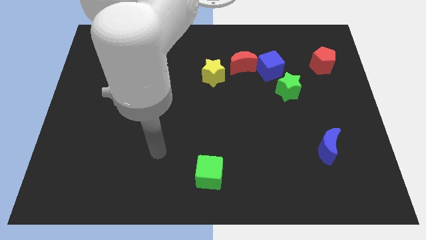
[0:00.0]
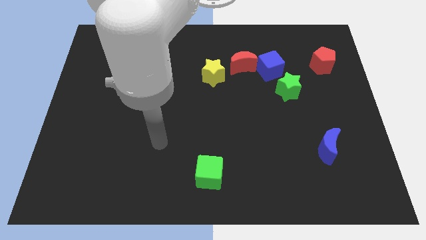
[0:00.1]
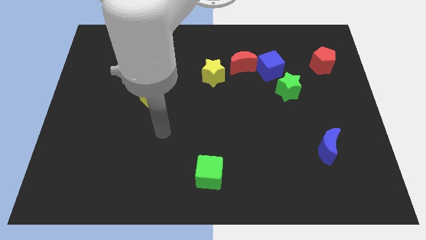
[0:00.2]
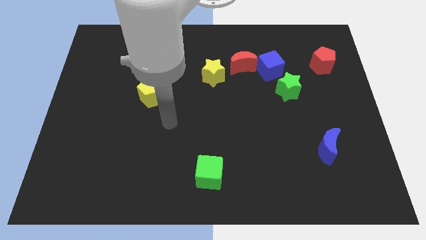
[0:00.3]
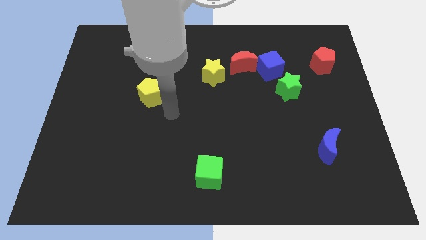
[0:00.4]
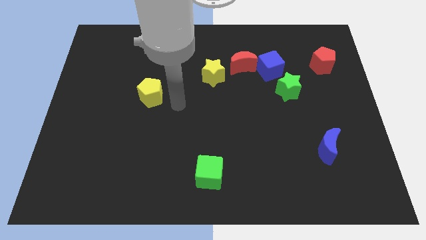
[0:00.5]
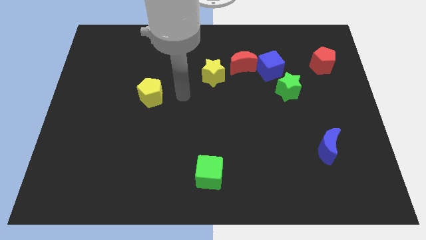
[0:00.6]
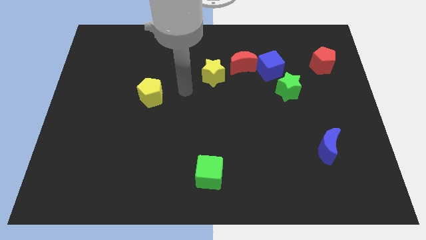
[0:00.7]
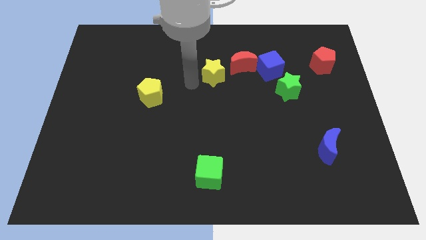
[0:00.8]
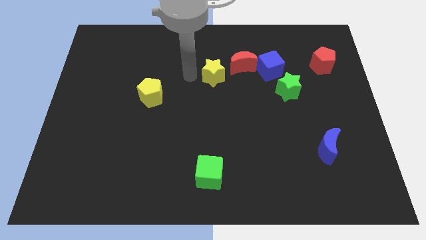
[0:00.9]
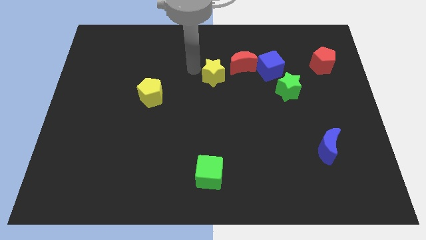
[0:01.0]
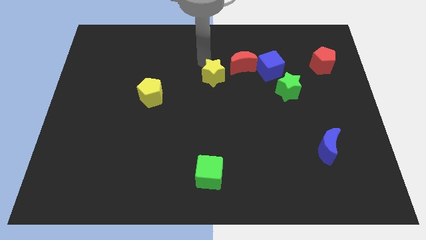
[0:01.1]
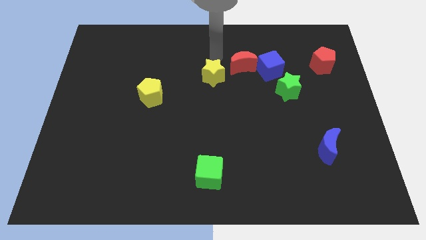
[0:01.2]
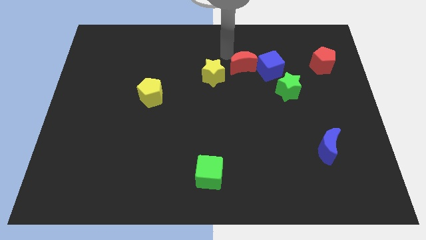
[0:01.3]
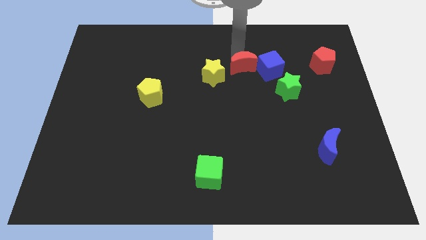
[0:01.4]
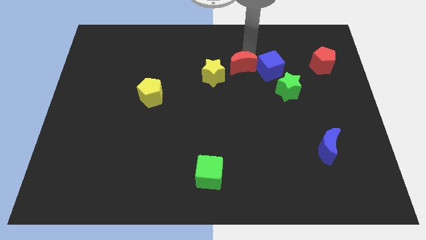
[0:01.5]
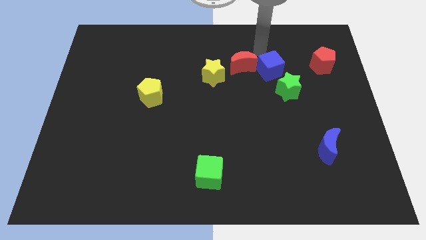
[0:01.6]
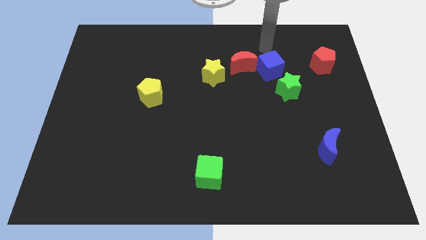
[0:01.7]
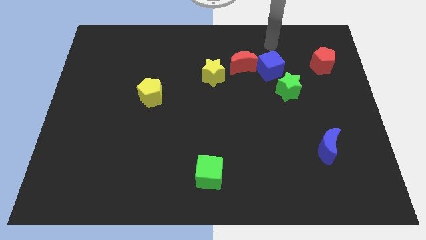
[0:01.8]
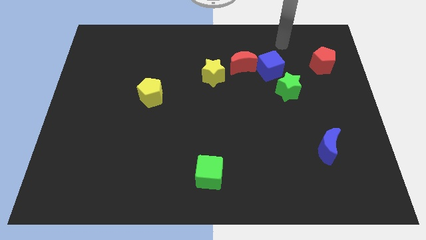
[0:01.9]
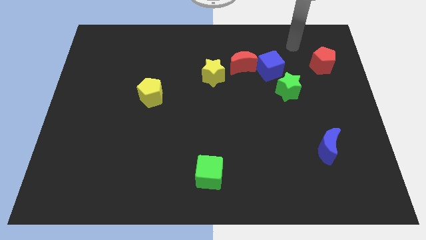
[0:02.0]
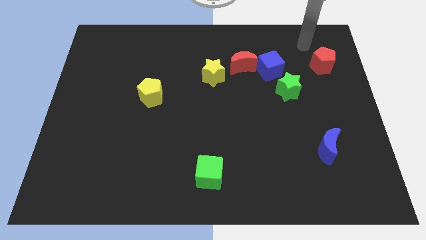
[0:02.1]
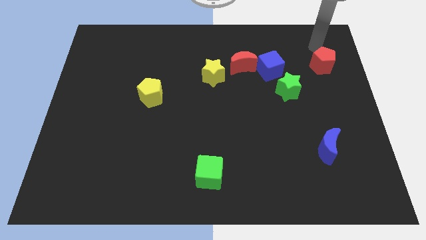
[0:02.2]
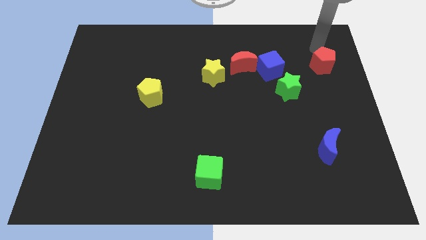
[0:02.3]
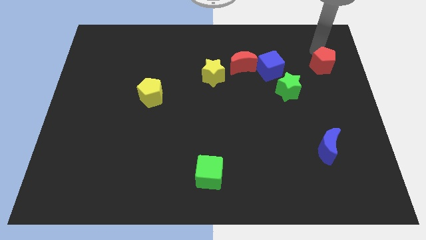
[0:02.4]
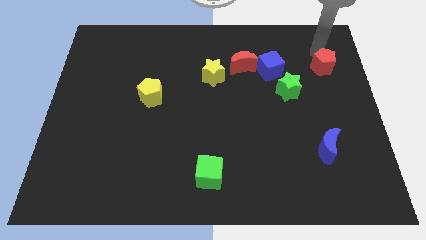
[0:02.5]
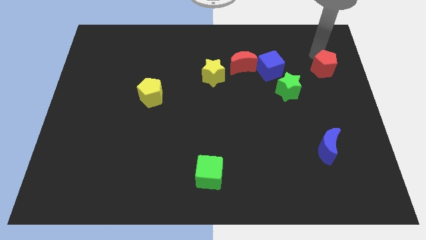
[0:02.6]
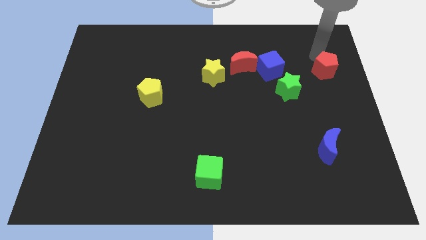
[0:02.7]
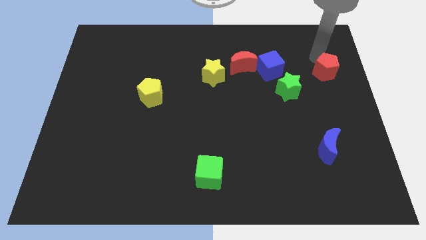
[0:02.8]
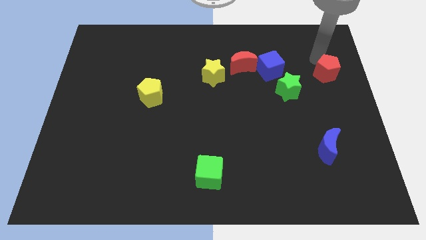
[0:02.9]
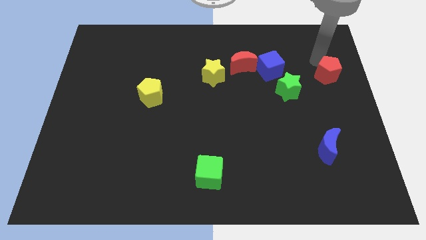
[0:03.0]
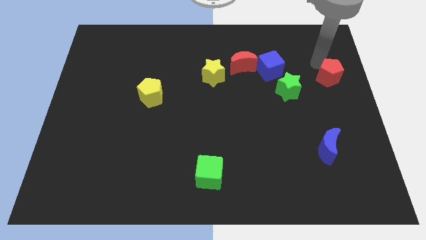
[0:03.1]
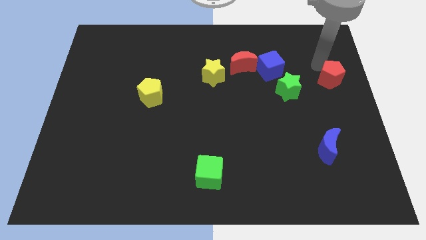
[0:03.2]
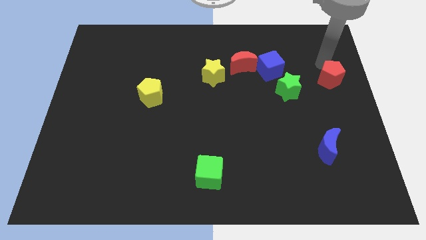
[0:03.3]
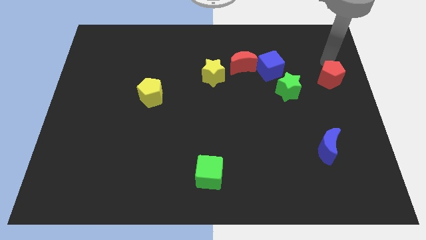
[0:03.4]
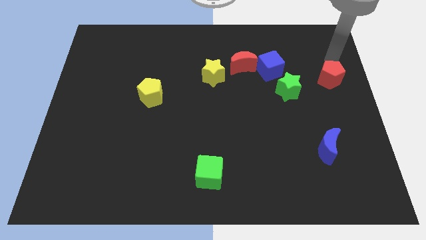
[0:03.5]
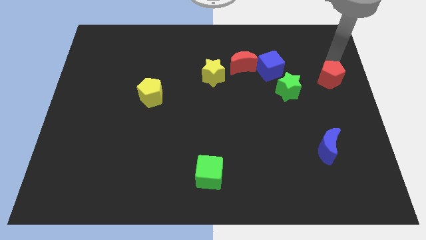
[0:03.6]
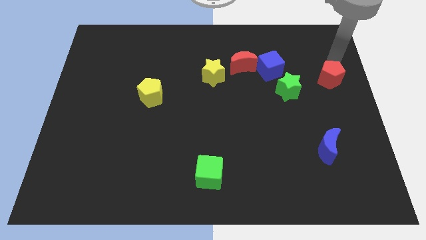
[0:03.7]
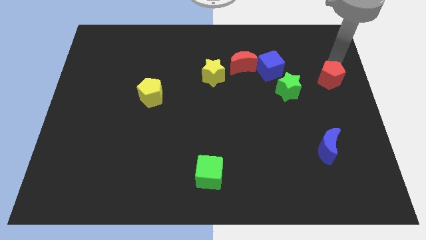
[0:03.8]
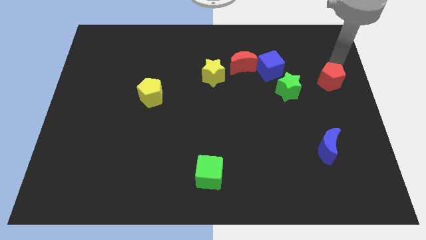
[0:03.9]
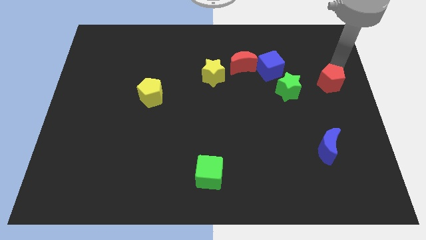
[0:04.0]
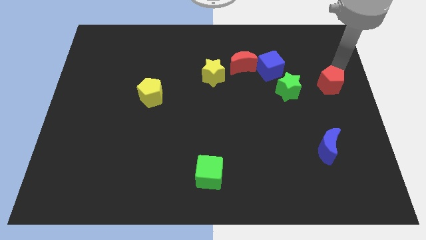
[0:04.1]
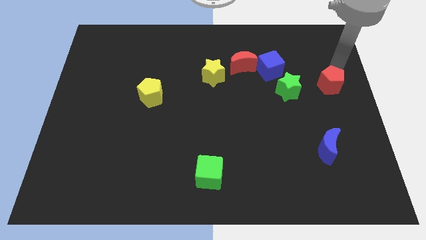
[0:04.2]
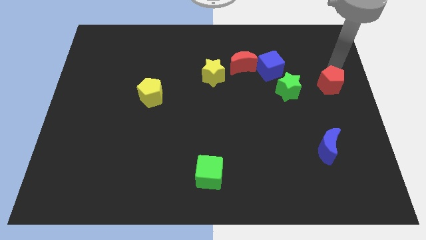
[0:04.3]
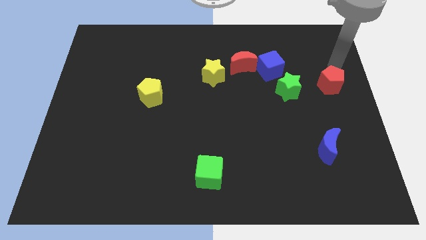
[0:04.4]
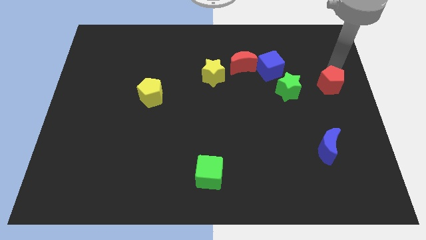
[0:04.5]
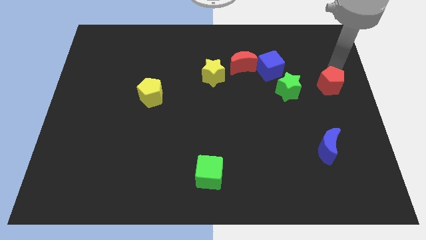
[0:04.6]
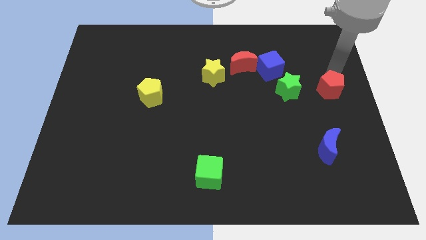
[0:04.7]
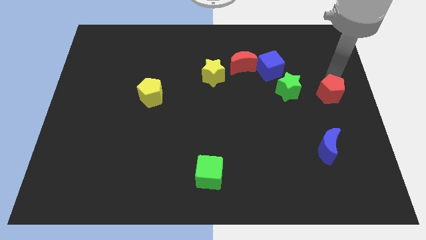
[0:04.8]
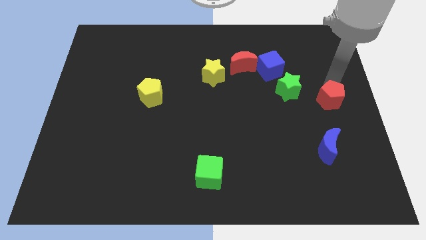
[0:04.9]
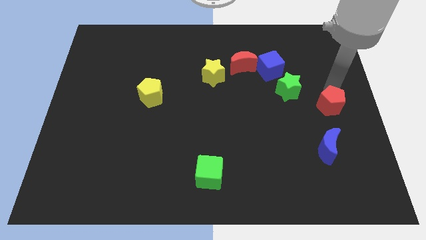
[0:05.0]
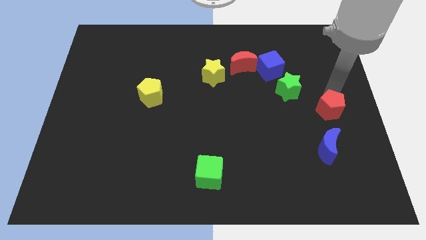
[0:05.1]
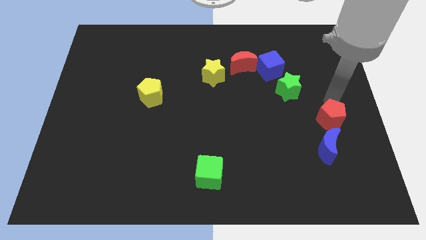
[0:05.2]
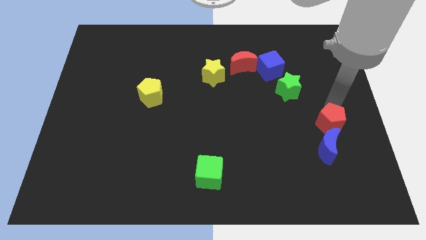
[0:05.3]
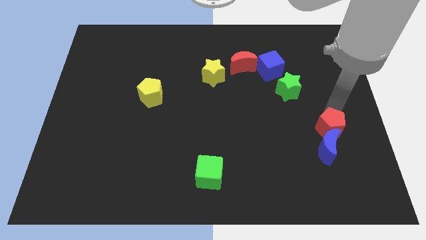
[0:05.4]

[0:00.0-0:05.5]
put the red pentagon close to the blue moon

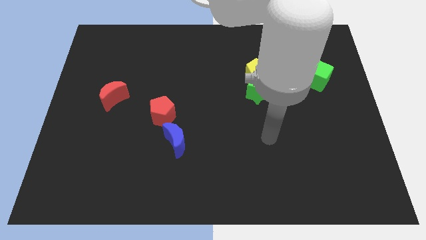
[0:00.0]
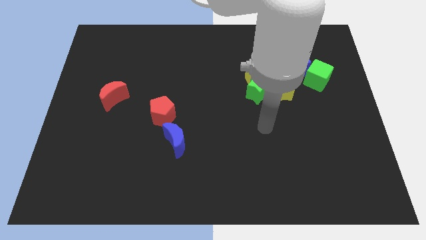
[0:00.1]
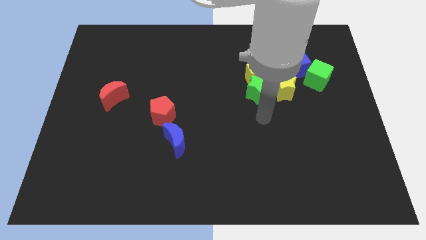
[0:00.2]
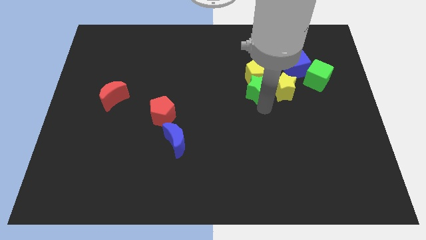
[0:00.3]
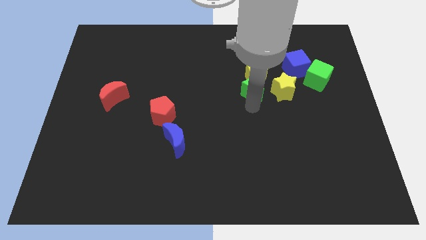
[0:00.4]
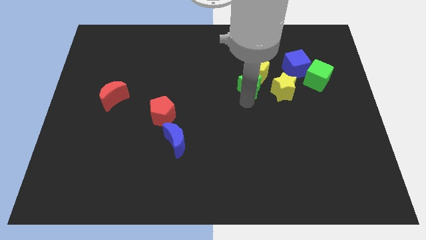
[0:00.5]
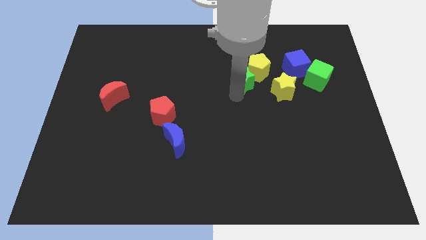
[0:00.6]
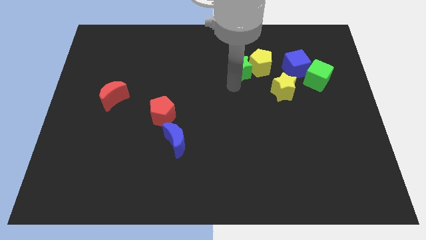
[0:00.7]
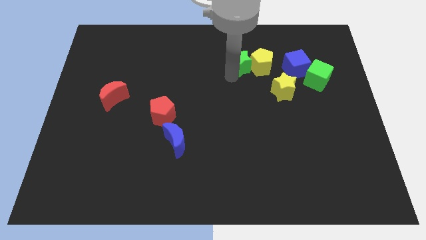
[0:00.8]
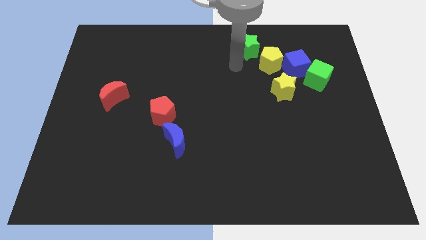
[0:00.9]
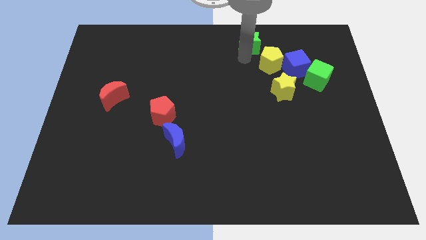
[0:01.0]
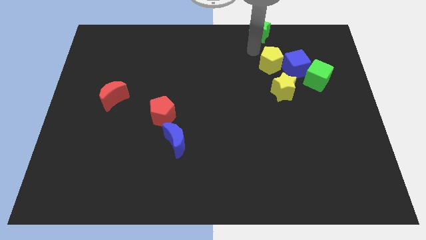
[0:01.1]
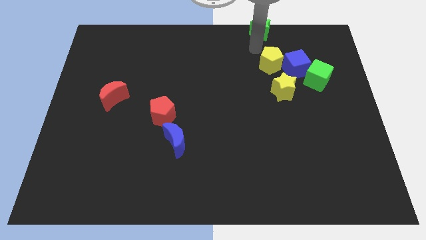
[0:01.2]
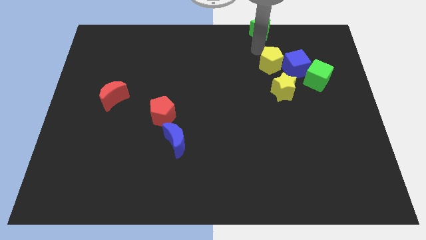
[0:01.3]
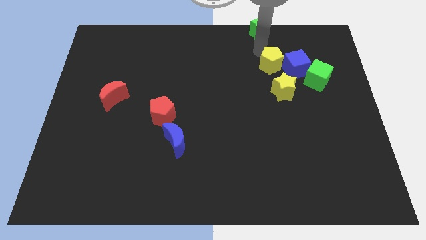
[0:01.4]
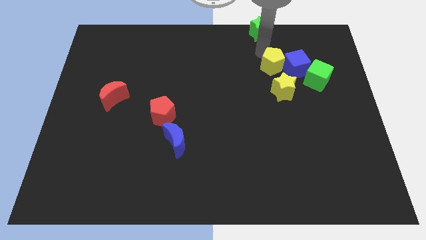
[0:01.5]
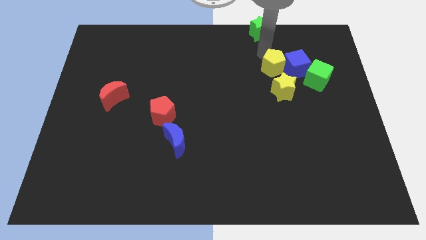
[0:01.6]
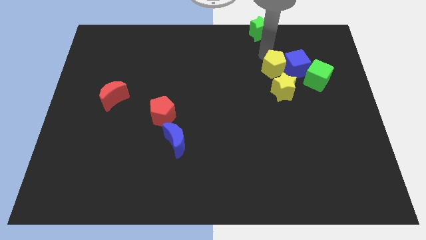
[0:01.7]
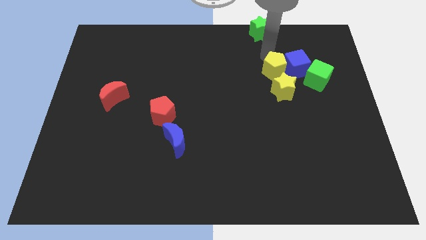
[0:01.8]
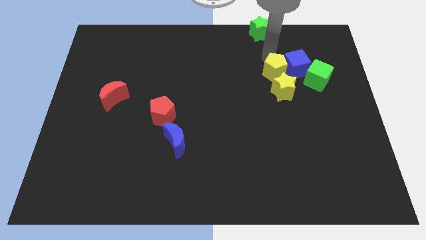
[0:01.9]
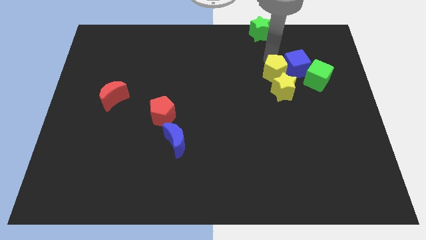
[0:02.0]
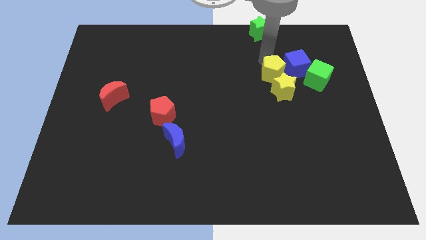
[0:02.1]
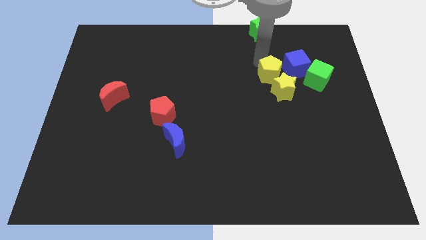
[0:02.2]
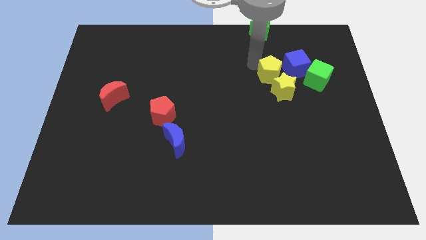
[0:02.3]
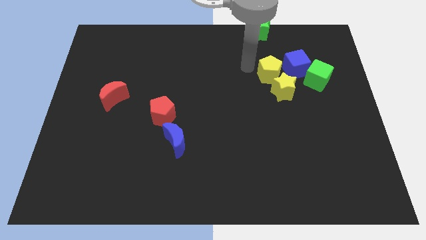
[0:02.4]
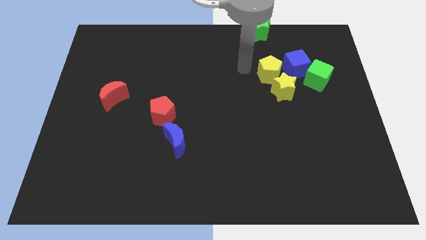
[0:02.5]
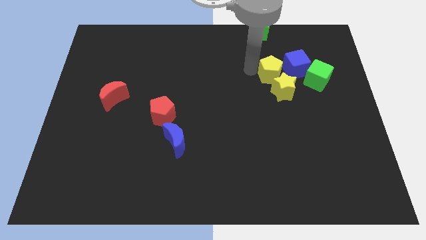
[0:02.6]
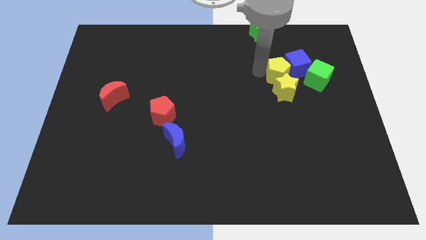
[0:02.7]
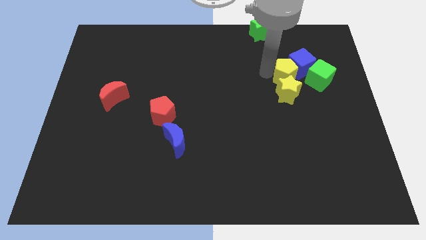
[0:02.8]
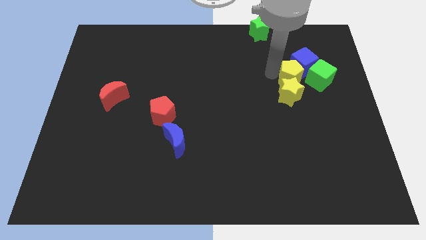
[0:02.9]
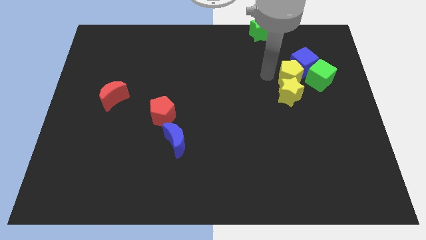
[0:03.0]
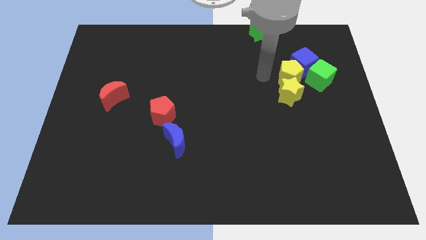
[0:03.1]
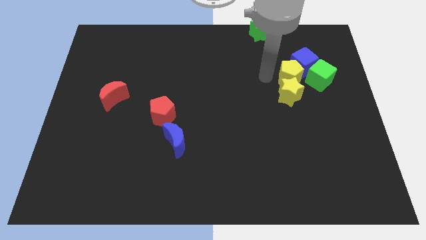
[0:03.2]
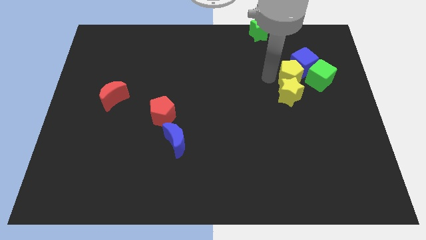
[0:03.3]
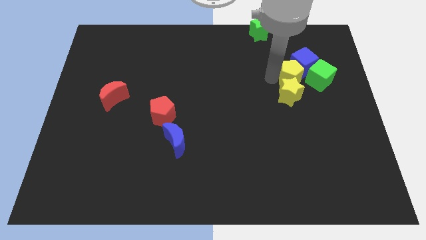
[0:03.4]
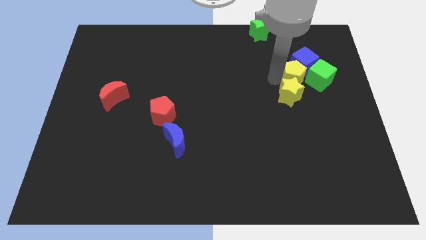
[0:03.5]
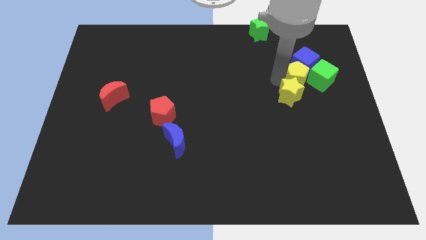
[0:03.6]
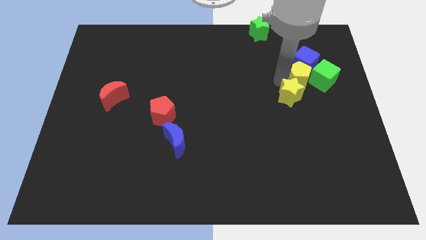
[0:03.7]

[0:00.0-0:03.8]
put the yellow pentagon towards the green cube
